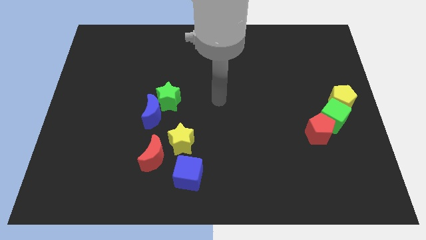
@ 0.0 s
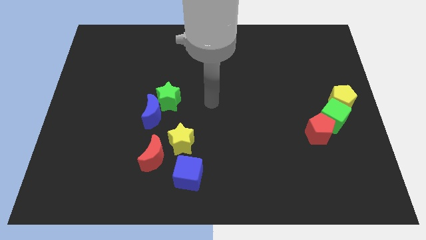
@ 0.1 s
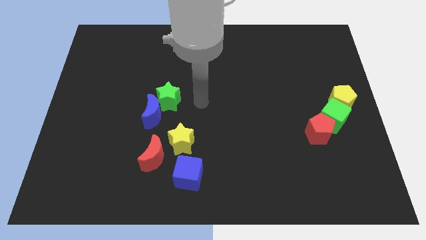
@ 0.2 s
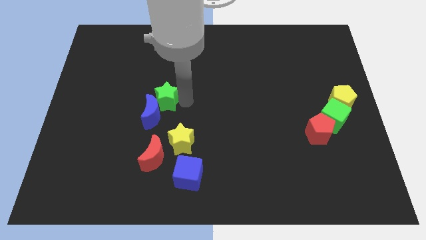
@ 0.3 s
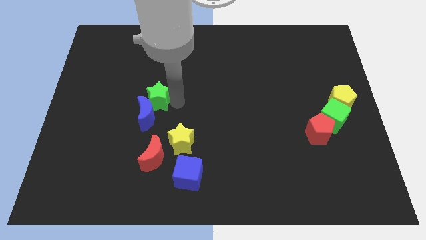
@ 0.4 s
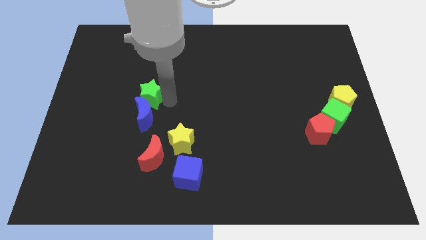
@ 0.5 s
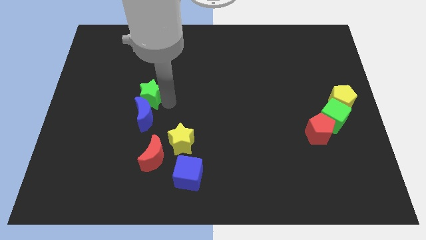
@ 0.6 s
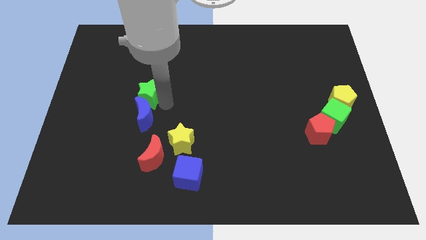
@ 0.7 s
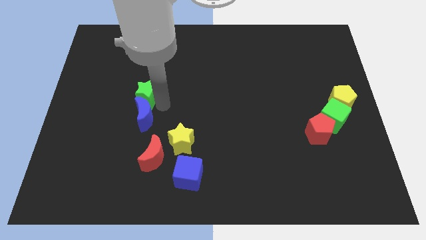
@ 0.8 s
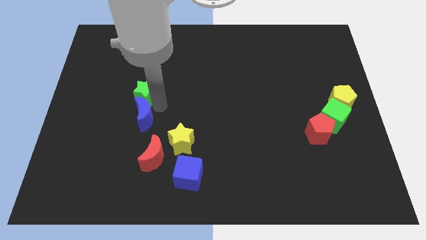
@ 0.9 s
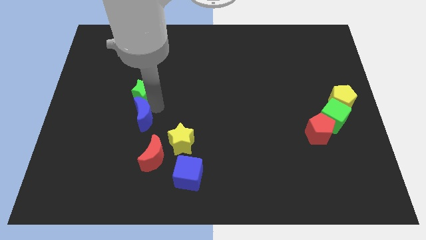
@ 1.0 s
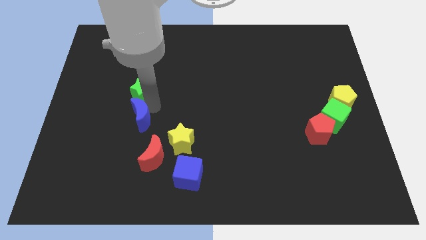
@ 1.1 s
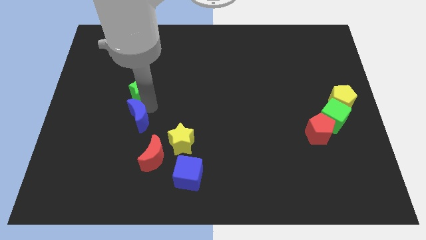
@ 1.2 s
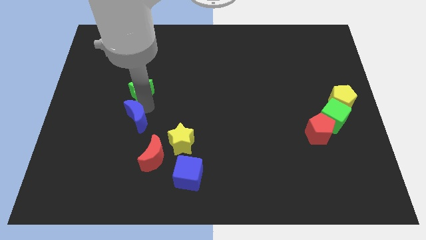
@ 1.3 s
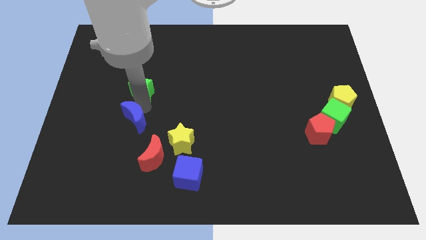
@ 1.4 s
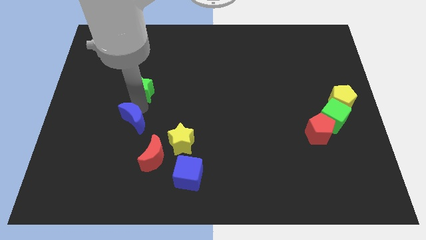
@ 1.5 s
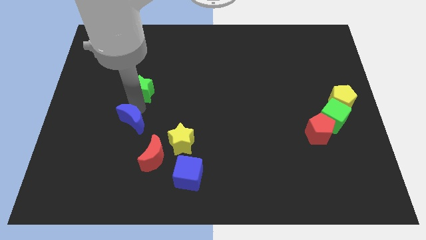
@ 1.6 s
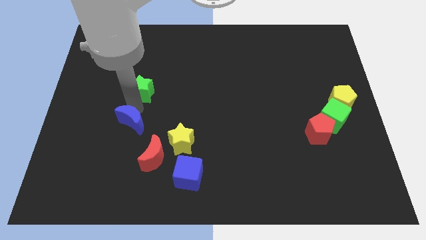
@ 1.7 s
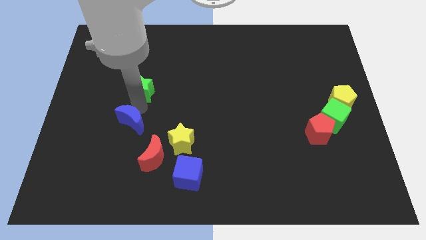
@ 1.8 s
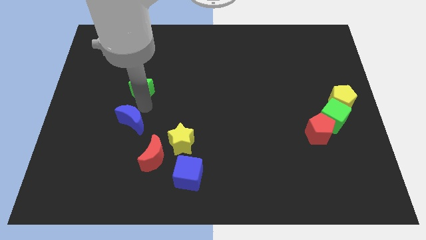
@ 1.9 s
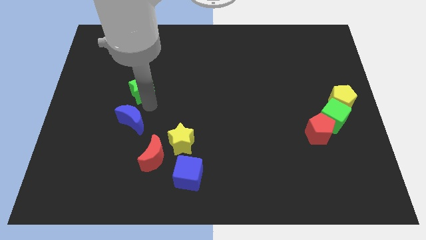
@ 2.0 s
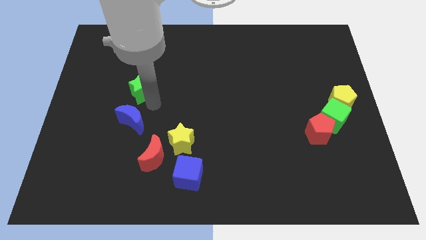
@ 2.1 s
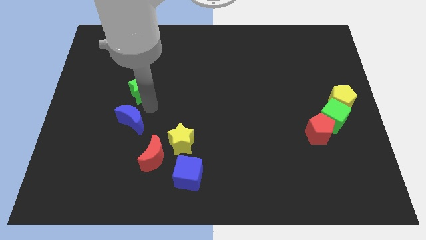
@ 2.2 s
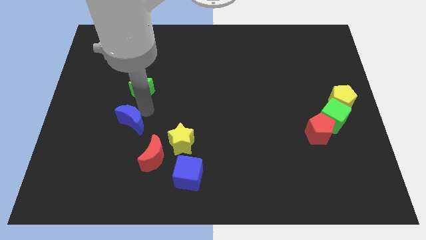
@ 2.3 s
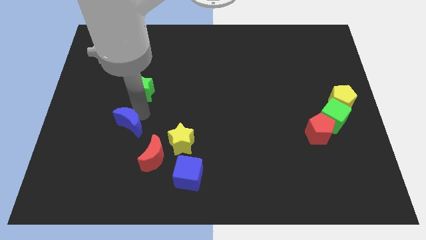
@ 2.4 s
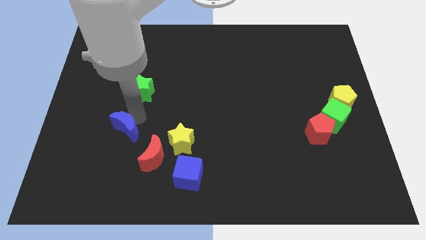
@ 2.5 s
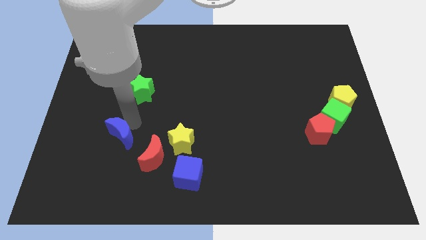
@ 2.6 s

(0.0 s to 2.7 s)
move the blue moon a little bit diagonally down and left

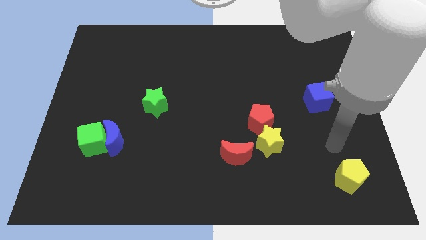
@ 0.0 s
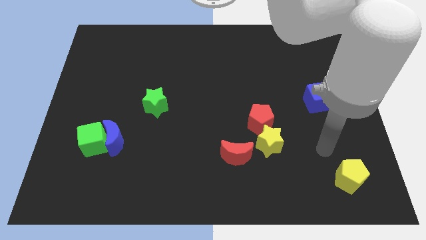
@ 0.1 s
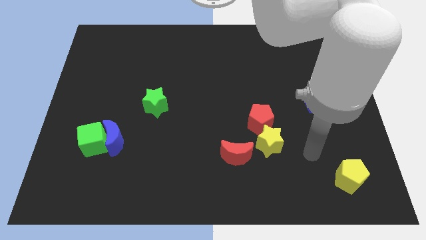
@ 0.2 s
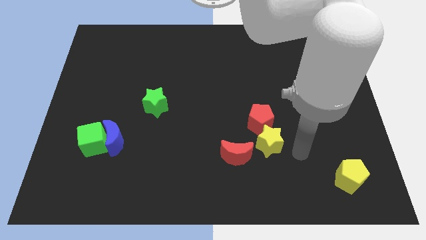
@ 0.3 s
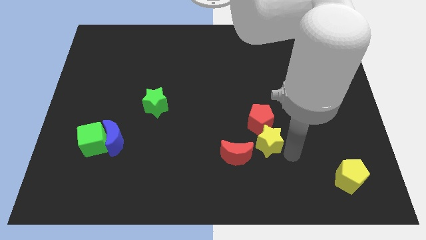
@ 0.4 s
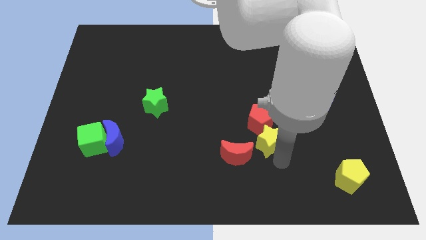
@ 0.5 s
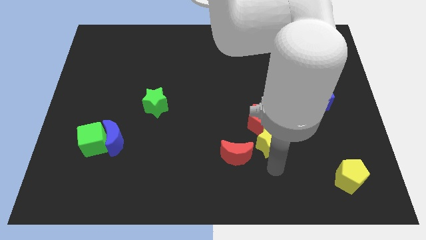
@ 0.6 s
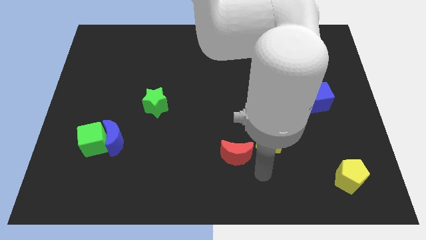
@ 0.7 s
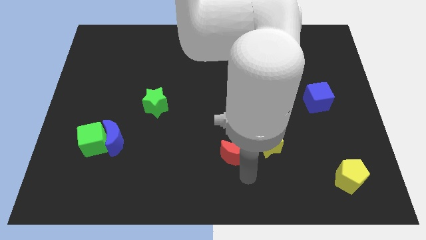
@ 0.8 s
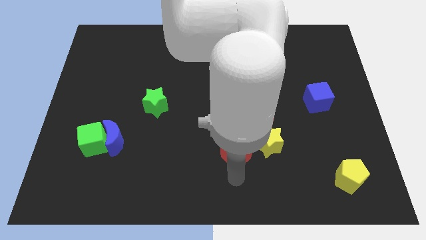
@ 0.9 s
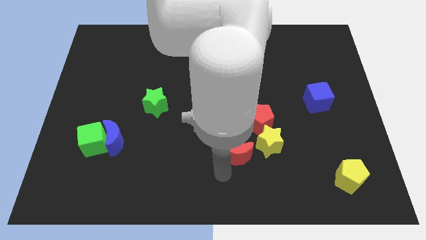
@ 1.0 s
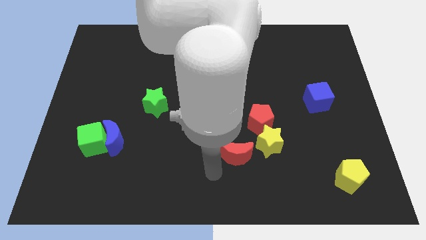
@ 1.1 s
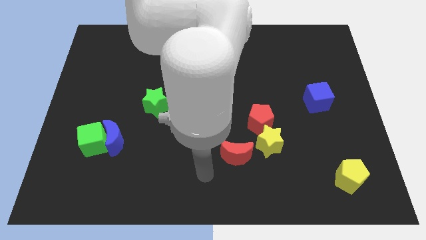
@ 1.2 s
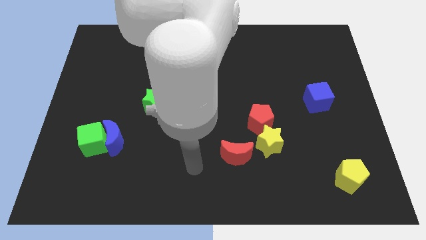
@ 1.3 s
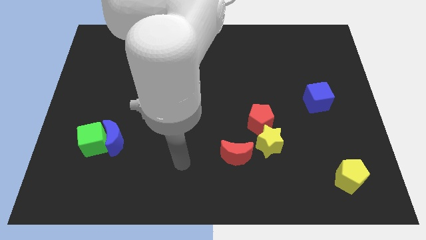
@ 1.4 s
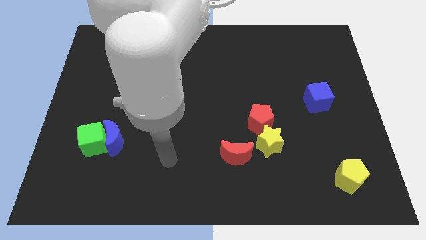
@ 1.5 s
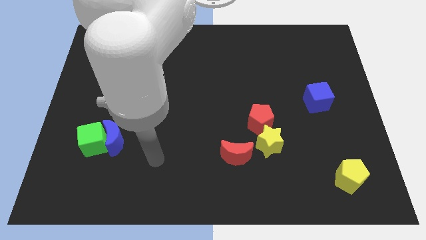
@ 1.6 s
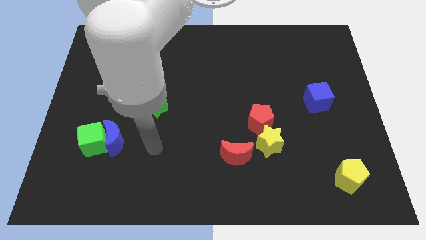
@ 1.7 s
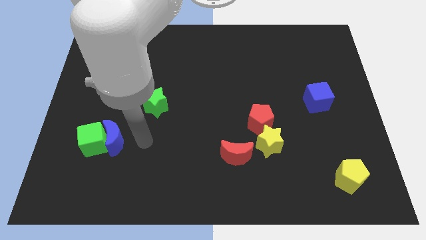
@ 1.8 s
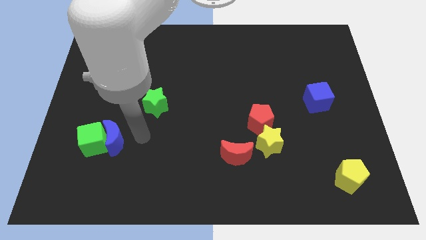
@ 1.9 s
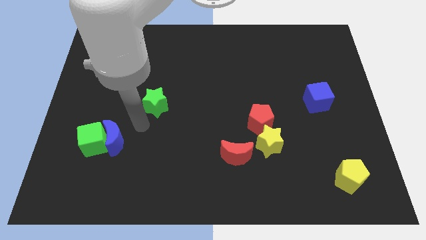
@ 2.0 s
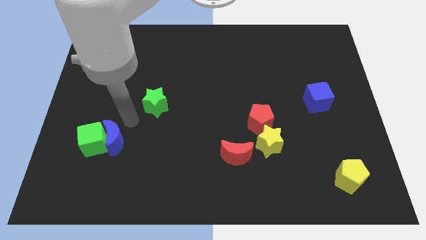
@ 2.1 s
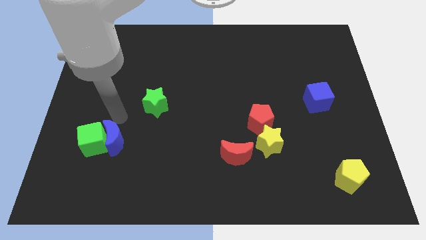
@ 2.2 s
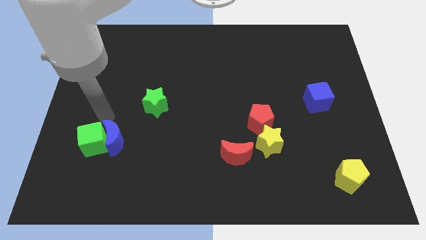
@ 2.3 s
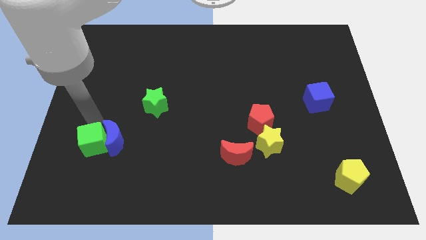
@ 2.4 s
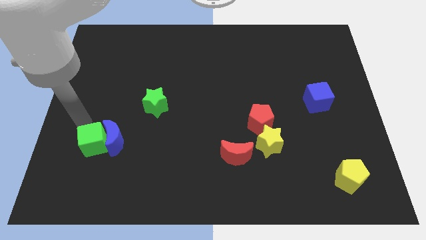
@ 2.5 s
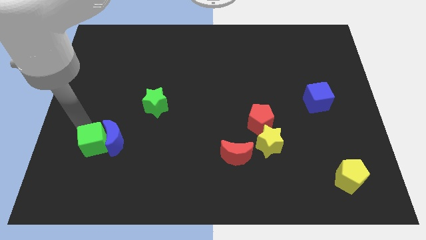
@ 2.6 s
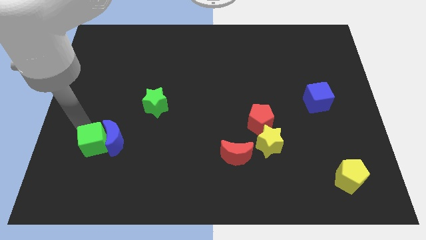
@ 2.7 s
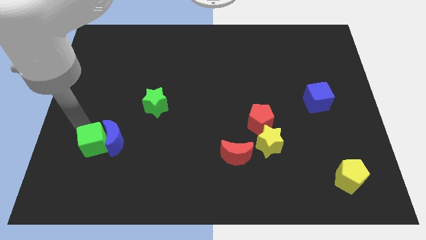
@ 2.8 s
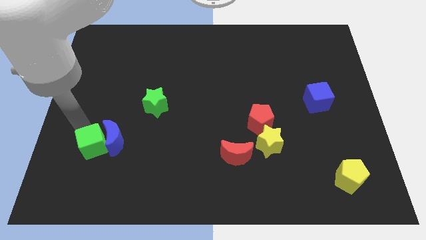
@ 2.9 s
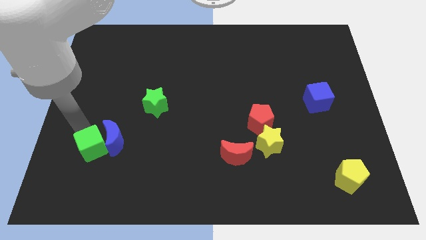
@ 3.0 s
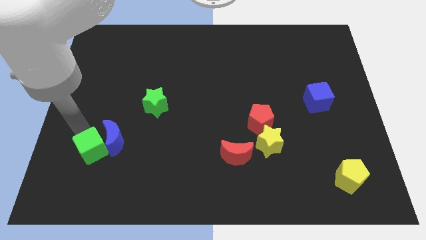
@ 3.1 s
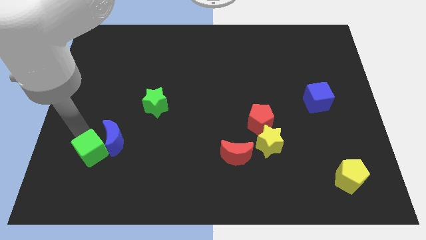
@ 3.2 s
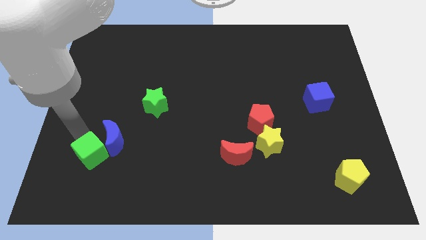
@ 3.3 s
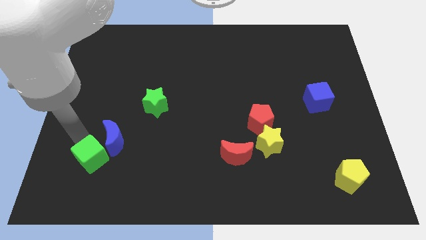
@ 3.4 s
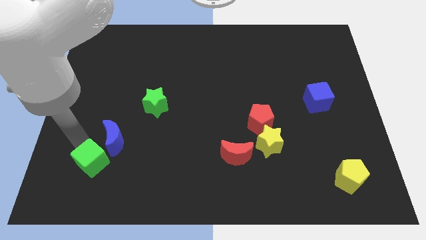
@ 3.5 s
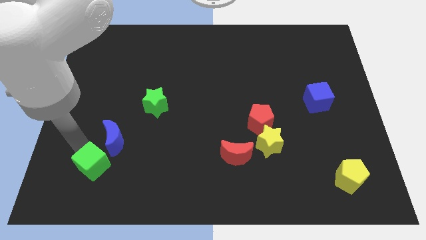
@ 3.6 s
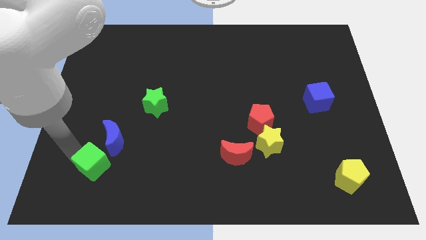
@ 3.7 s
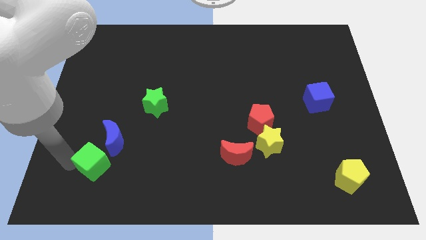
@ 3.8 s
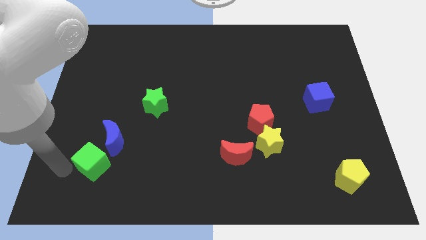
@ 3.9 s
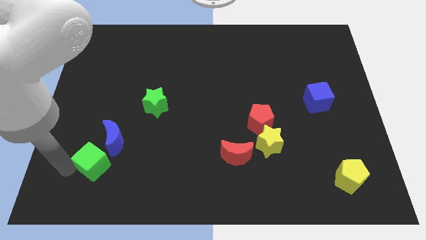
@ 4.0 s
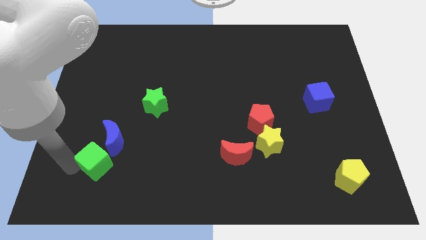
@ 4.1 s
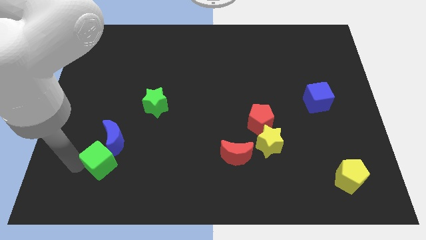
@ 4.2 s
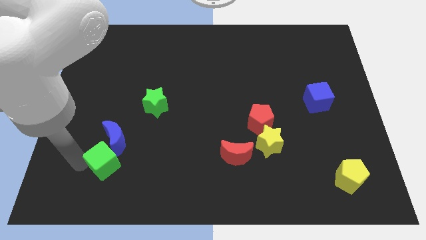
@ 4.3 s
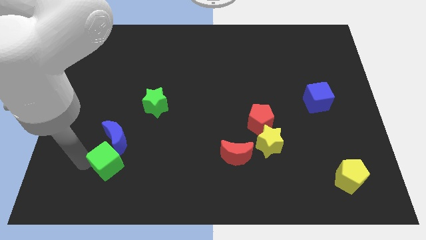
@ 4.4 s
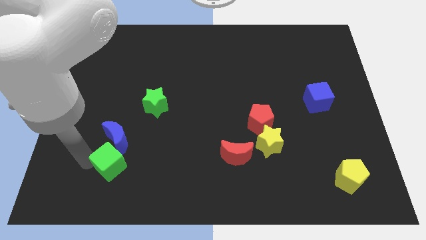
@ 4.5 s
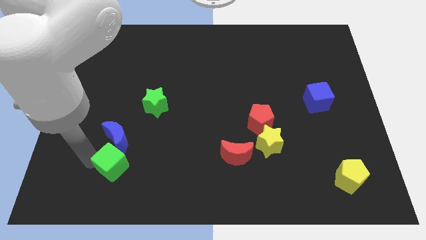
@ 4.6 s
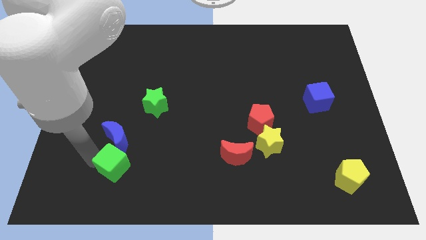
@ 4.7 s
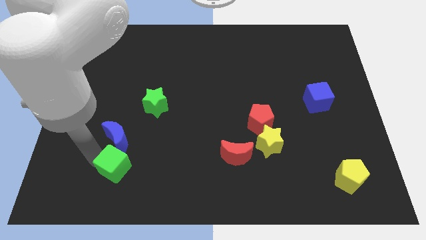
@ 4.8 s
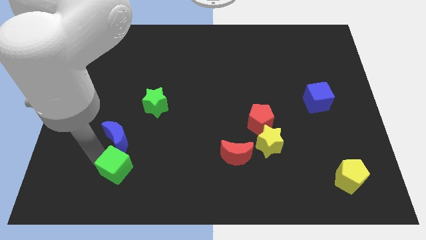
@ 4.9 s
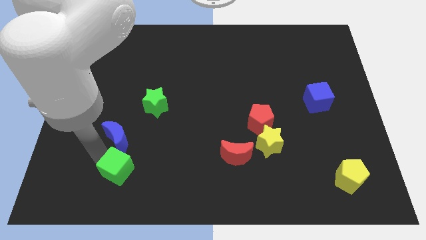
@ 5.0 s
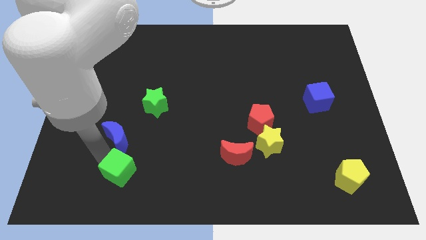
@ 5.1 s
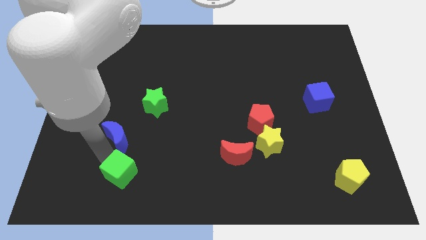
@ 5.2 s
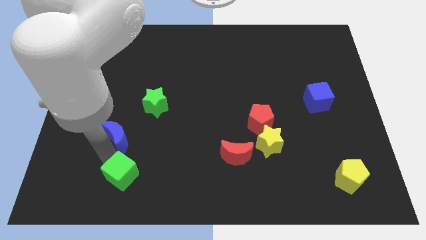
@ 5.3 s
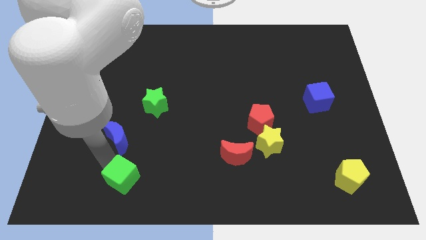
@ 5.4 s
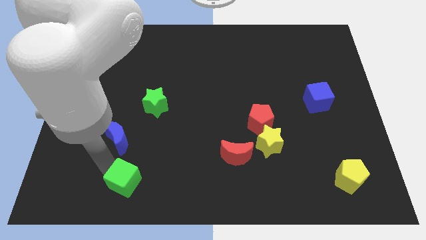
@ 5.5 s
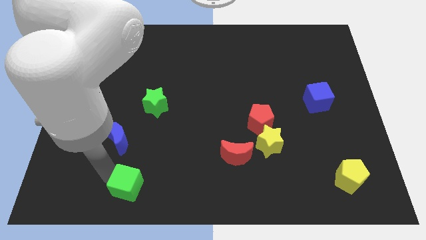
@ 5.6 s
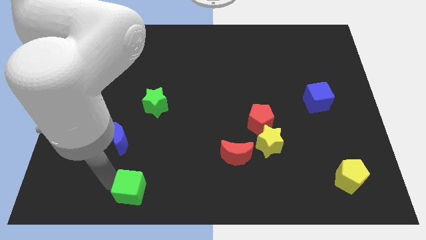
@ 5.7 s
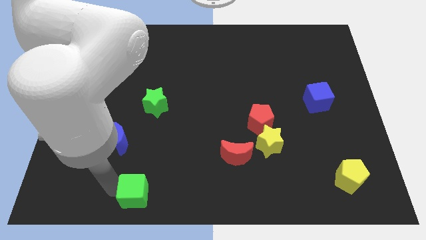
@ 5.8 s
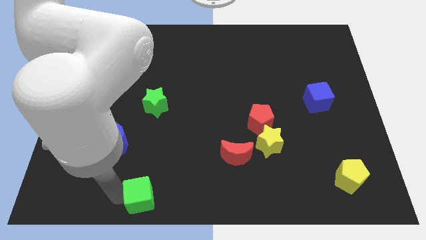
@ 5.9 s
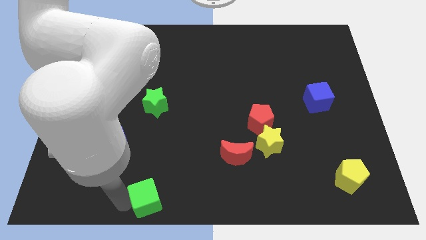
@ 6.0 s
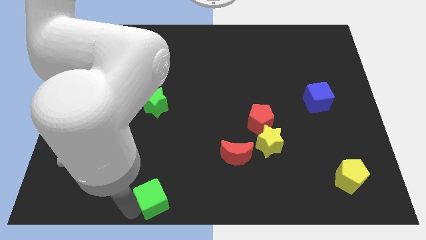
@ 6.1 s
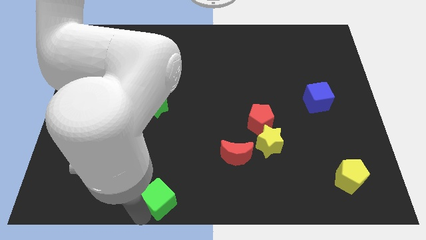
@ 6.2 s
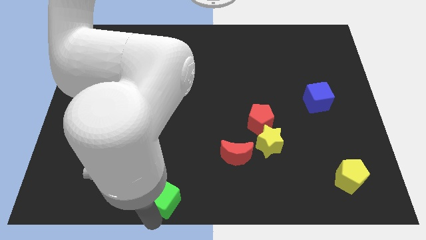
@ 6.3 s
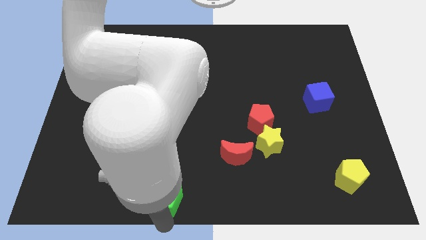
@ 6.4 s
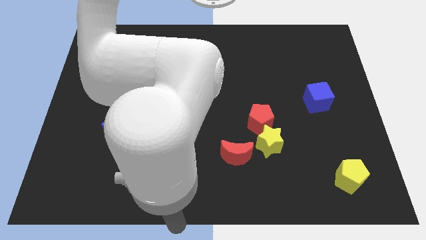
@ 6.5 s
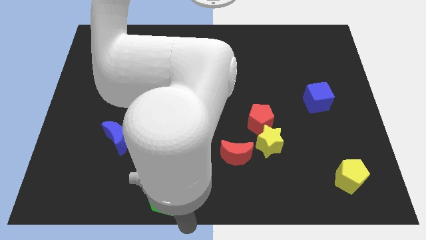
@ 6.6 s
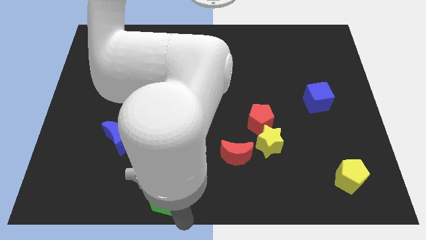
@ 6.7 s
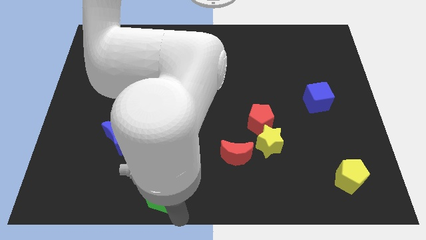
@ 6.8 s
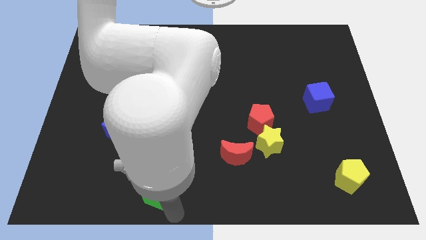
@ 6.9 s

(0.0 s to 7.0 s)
slightly slide the green cube to the right
